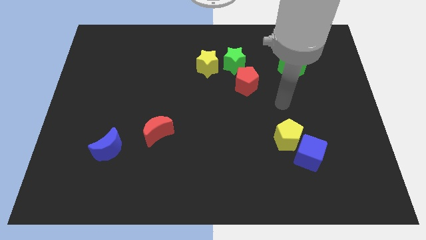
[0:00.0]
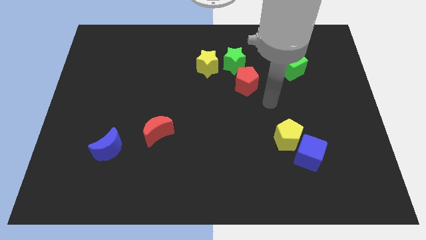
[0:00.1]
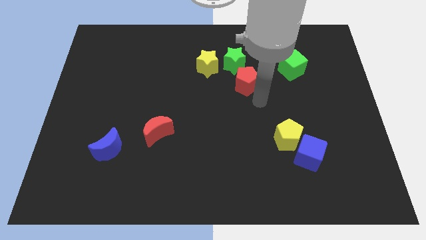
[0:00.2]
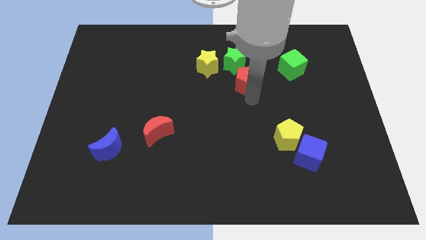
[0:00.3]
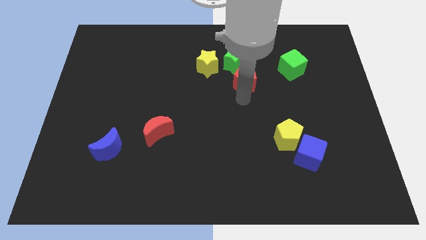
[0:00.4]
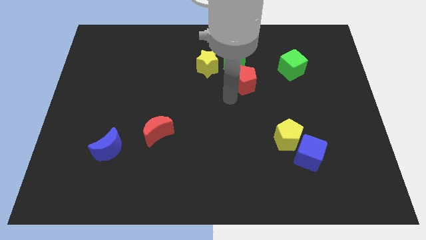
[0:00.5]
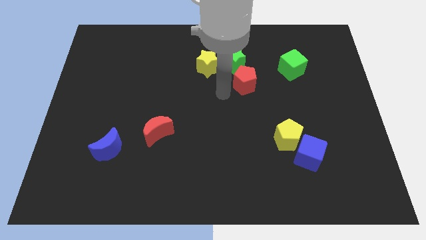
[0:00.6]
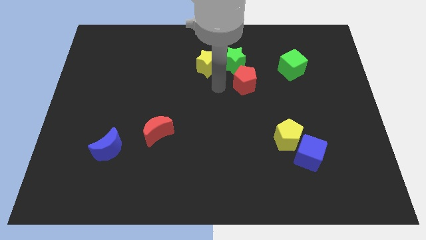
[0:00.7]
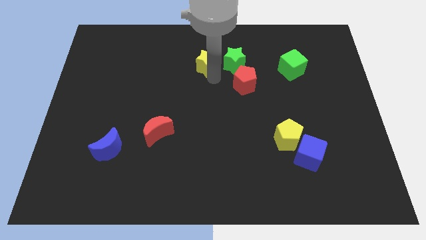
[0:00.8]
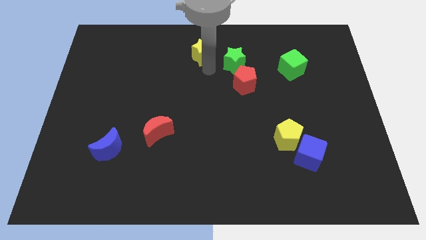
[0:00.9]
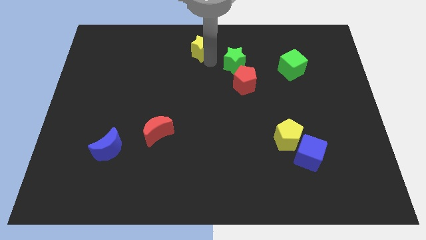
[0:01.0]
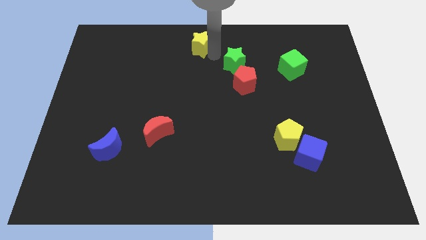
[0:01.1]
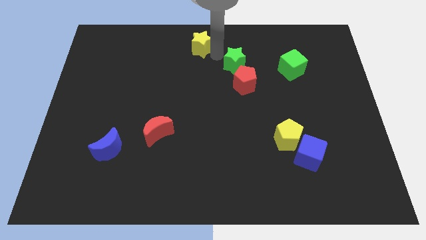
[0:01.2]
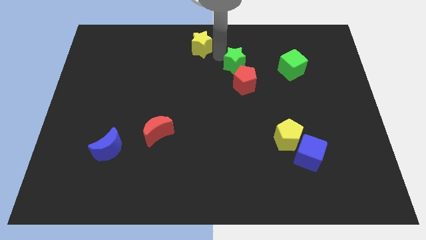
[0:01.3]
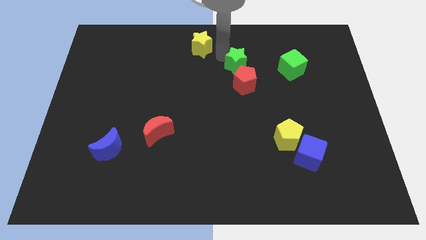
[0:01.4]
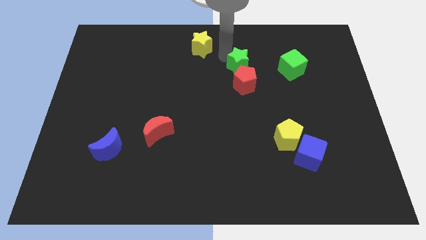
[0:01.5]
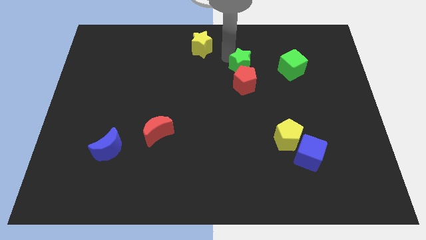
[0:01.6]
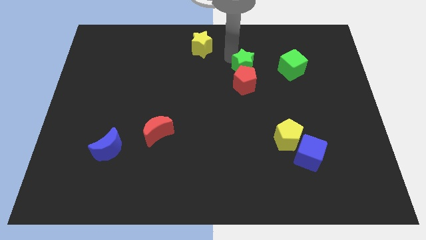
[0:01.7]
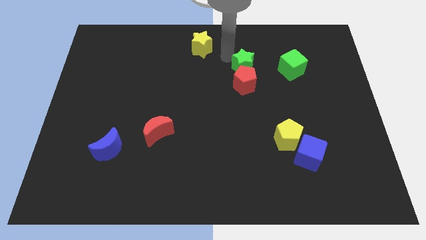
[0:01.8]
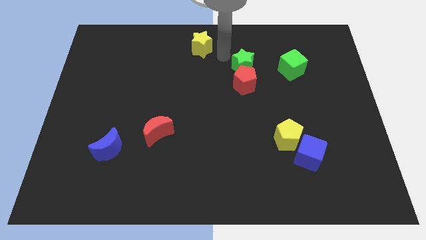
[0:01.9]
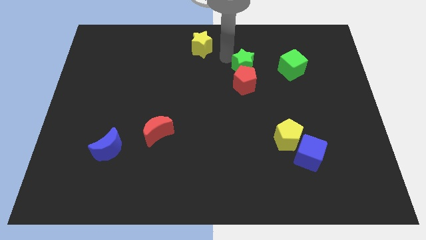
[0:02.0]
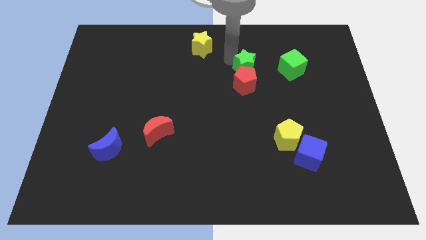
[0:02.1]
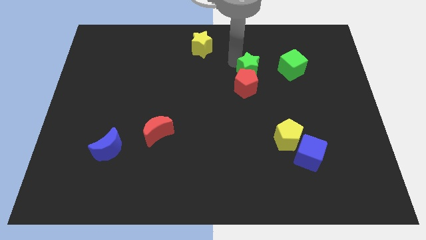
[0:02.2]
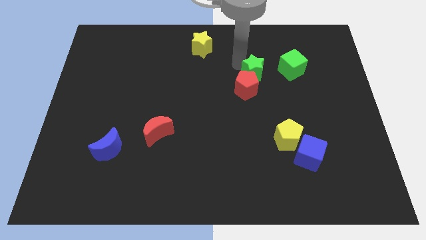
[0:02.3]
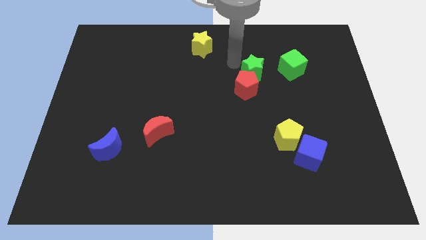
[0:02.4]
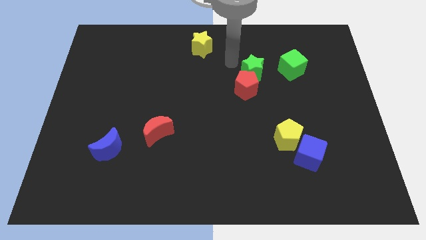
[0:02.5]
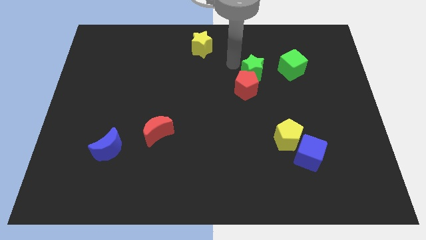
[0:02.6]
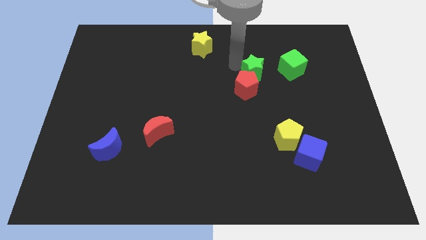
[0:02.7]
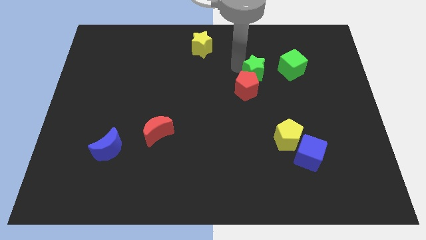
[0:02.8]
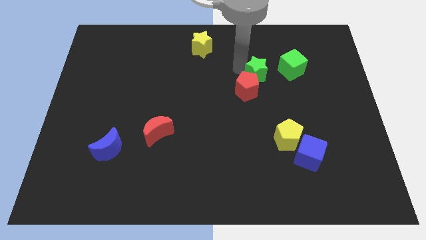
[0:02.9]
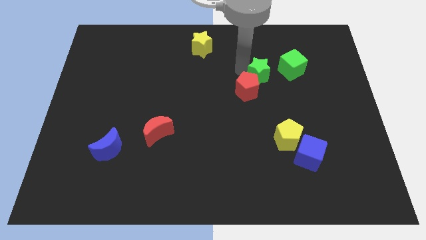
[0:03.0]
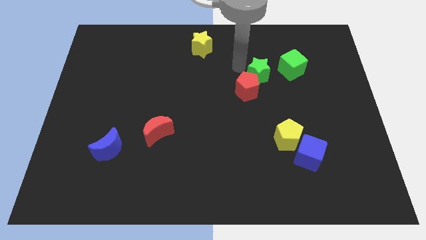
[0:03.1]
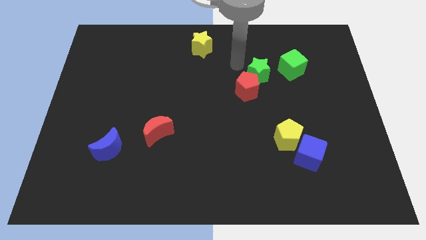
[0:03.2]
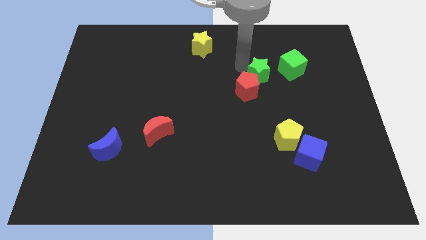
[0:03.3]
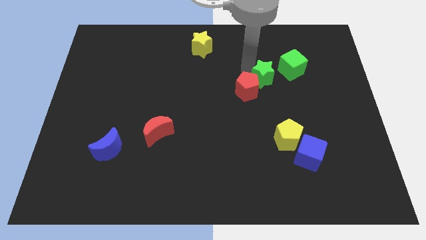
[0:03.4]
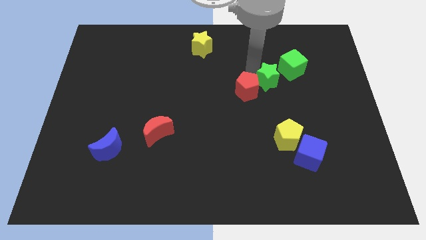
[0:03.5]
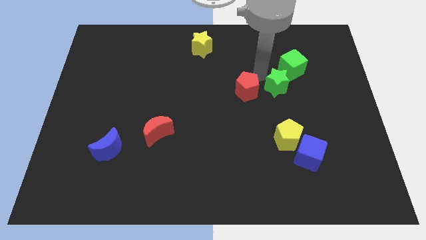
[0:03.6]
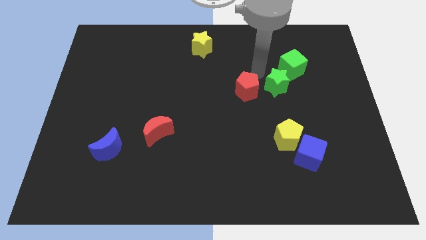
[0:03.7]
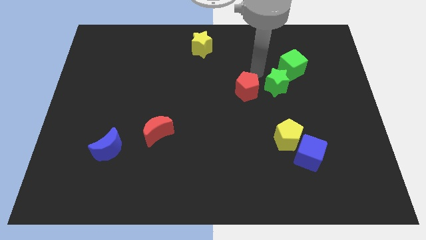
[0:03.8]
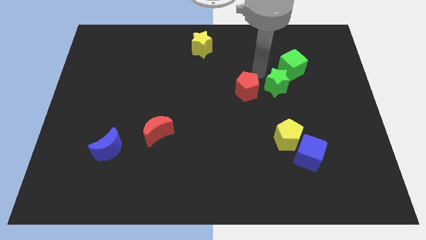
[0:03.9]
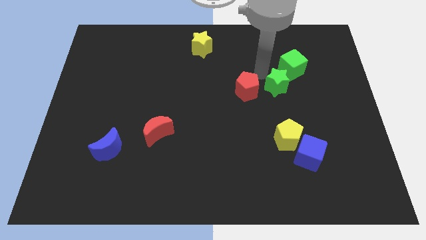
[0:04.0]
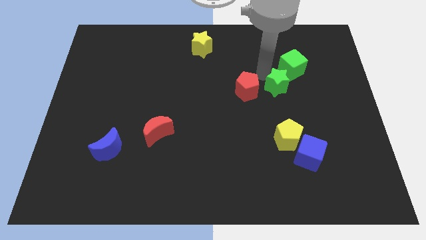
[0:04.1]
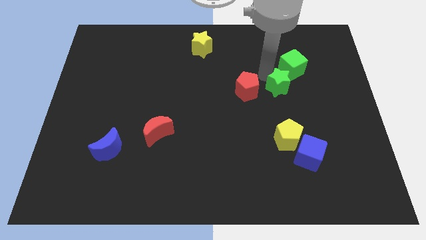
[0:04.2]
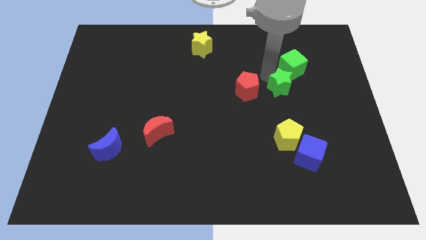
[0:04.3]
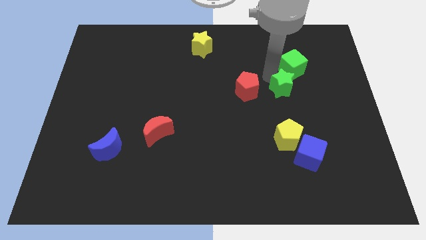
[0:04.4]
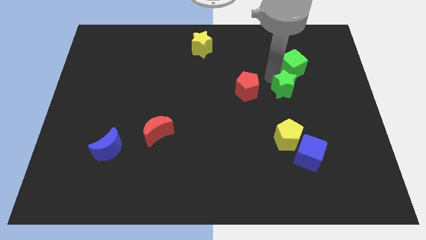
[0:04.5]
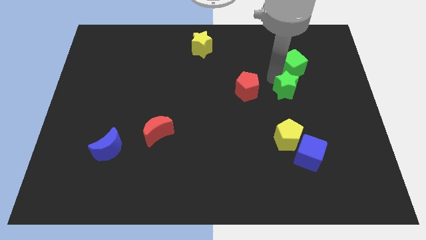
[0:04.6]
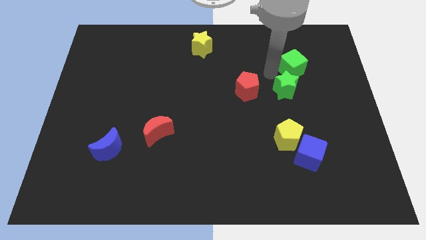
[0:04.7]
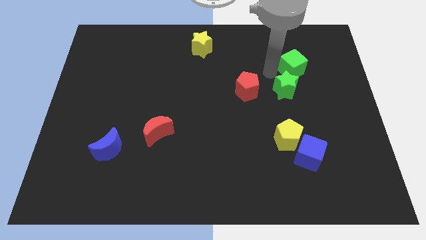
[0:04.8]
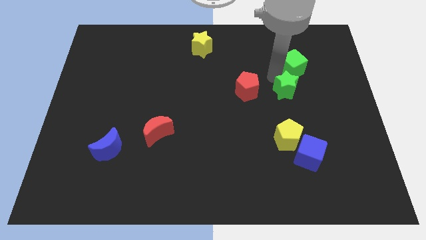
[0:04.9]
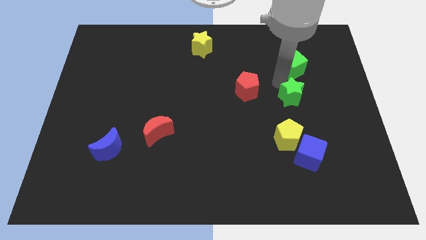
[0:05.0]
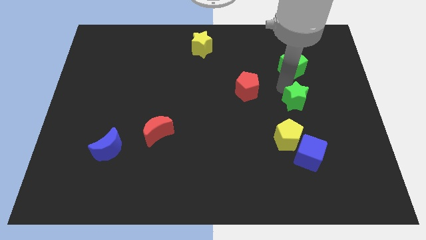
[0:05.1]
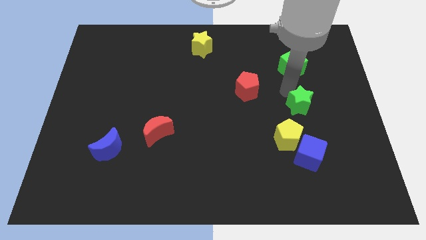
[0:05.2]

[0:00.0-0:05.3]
push the green star diagonally downwards and to the right

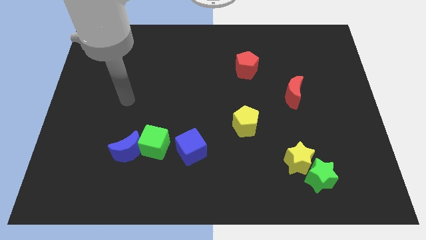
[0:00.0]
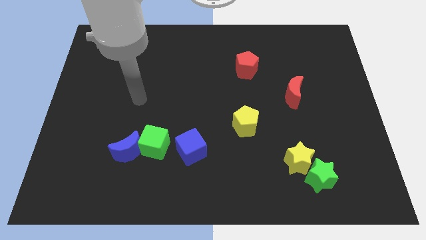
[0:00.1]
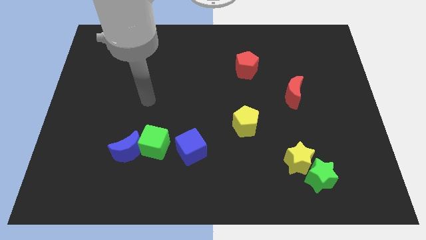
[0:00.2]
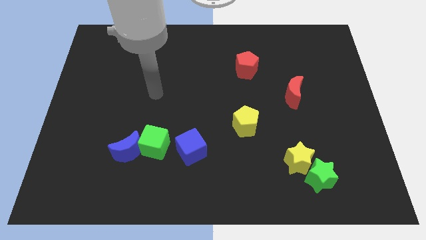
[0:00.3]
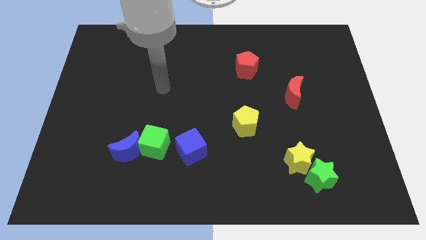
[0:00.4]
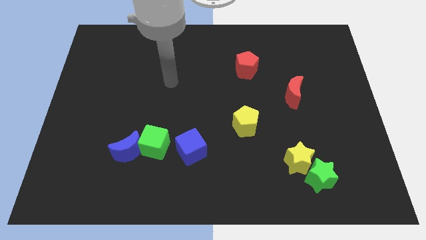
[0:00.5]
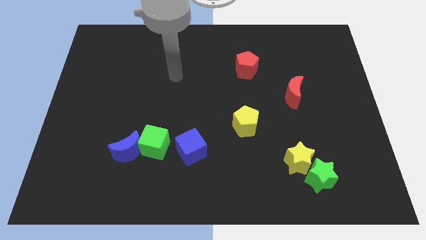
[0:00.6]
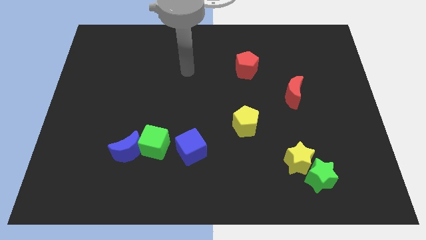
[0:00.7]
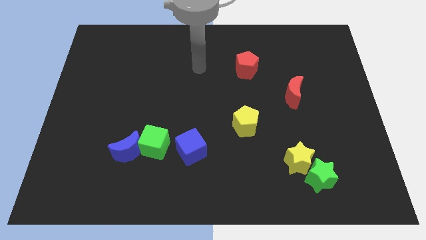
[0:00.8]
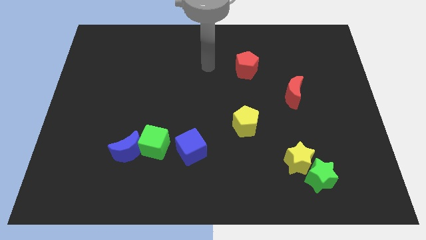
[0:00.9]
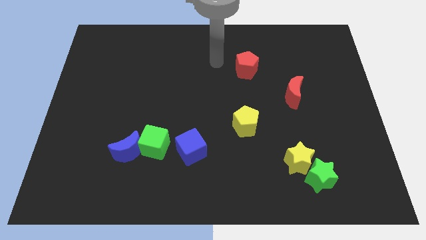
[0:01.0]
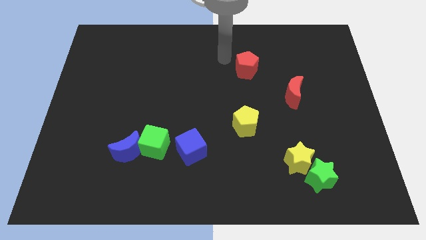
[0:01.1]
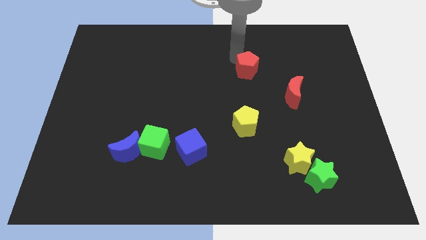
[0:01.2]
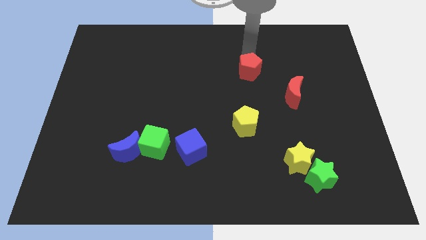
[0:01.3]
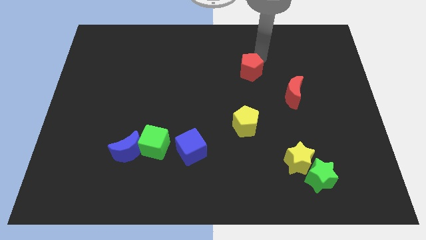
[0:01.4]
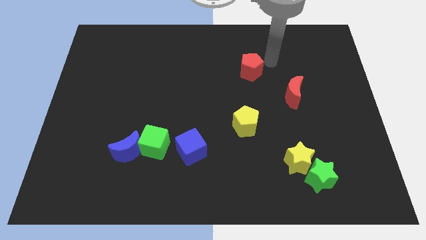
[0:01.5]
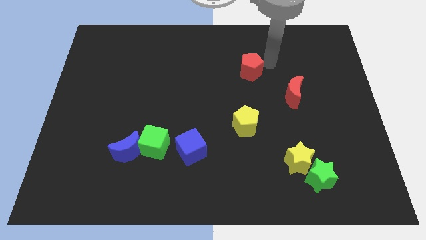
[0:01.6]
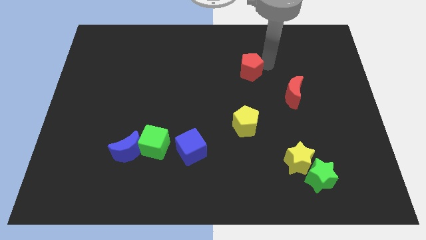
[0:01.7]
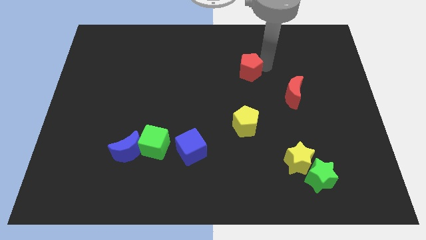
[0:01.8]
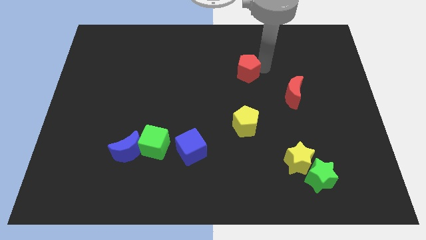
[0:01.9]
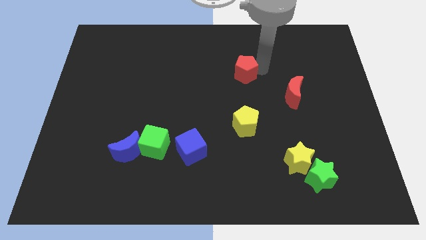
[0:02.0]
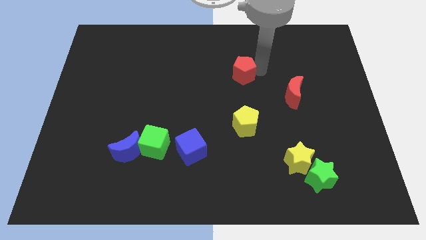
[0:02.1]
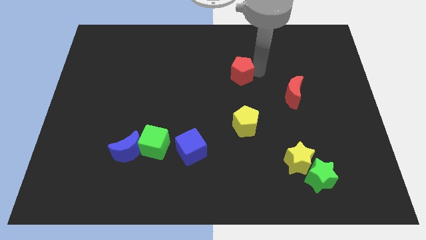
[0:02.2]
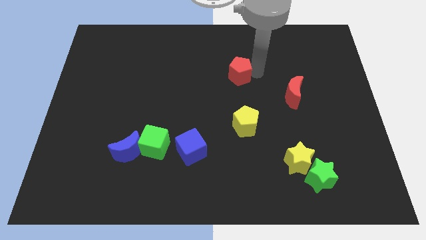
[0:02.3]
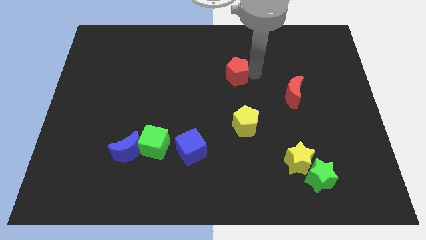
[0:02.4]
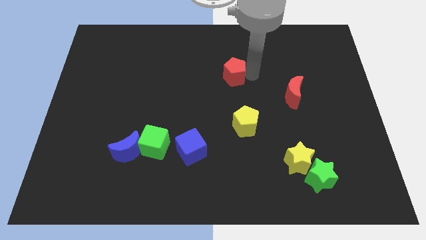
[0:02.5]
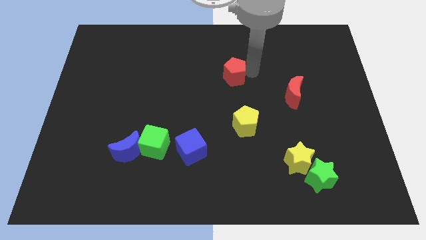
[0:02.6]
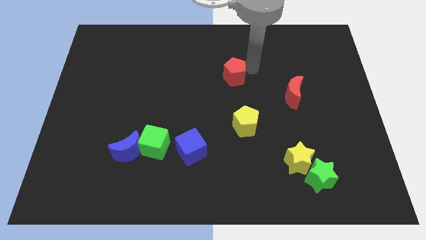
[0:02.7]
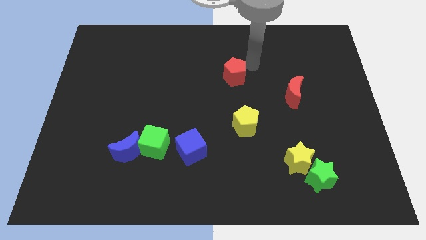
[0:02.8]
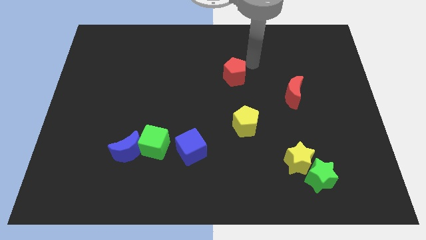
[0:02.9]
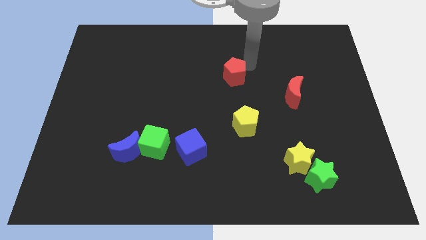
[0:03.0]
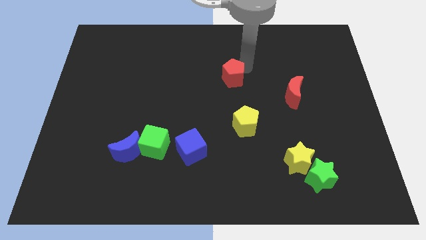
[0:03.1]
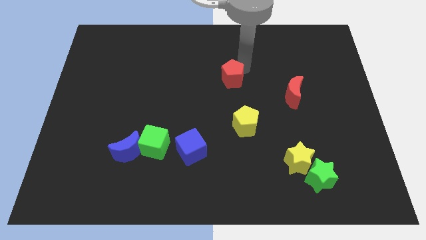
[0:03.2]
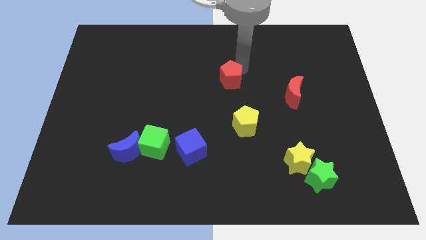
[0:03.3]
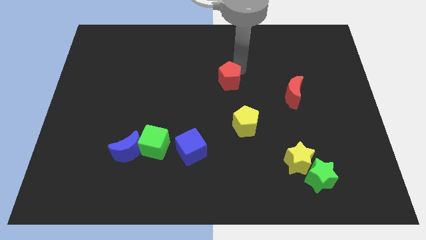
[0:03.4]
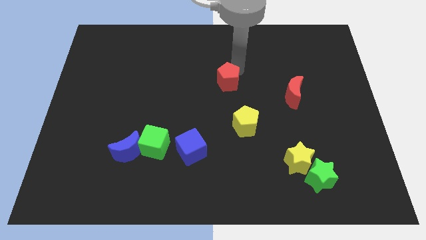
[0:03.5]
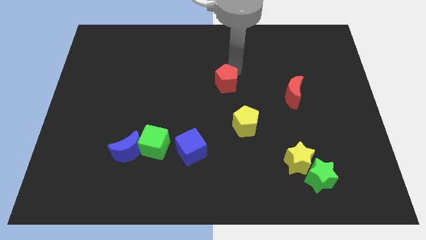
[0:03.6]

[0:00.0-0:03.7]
move the red pentagon a bit downwards and then left
